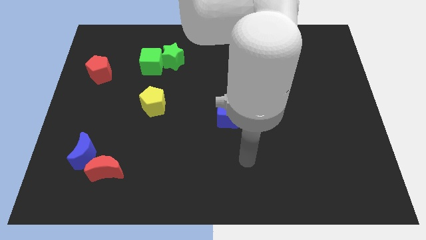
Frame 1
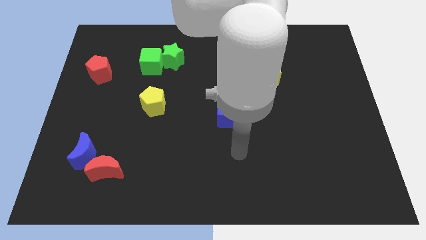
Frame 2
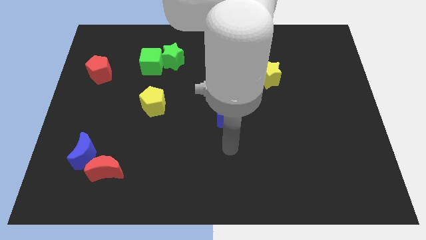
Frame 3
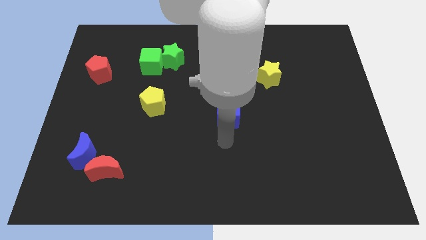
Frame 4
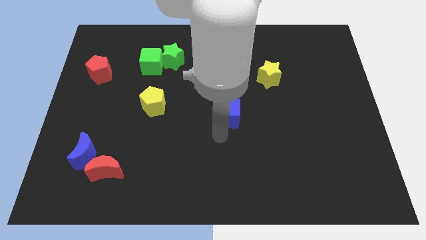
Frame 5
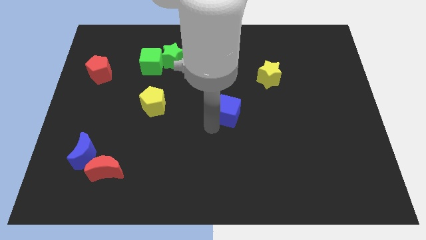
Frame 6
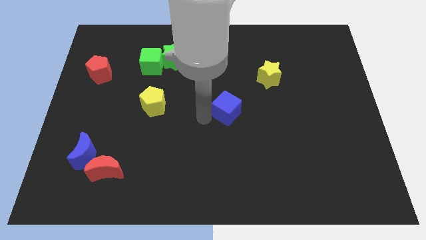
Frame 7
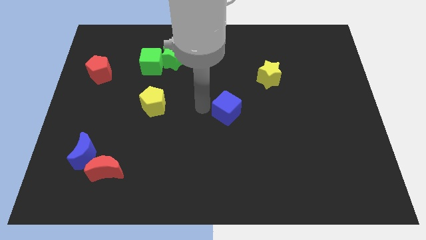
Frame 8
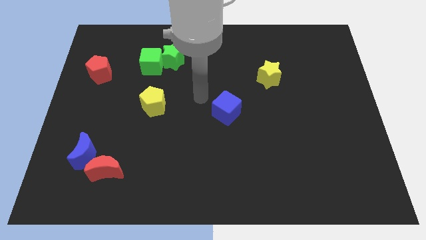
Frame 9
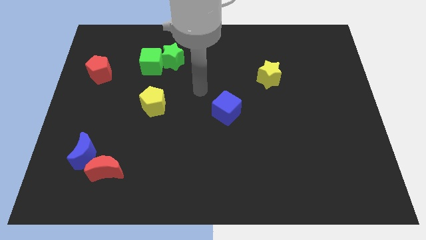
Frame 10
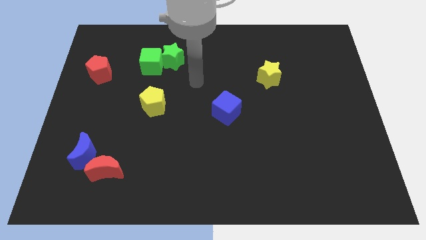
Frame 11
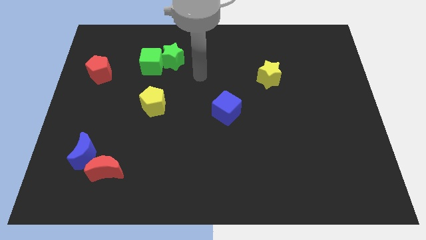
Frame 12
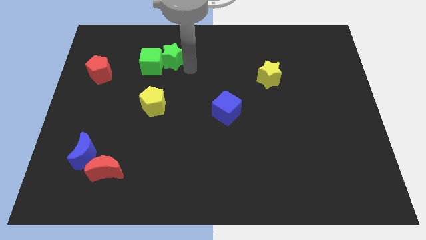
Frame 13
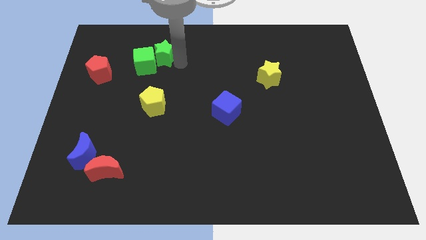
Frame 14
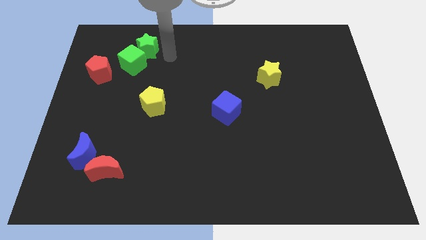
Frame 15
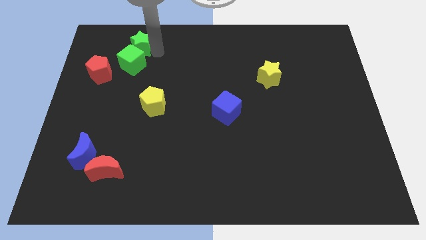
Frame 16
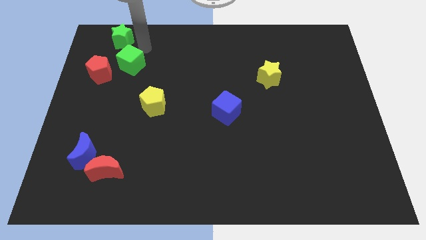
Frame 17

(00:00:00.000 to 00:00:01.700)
pull the green cube apart from the green star

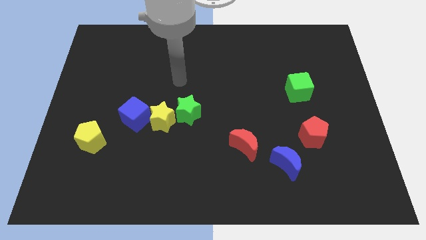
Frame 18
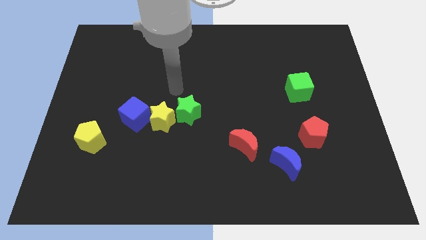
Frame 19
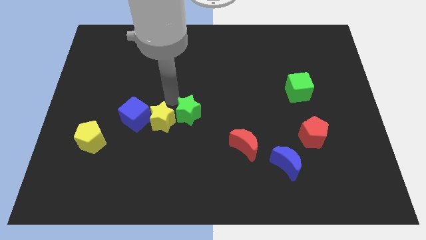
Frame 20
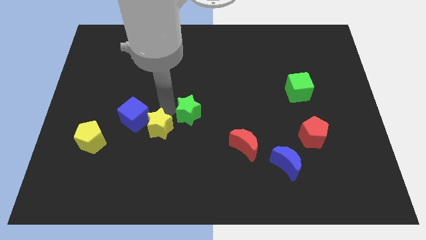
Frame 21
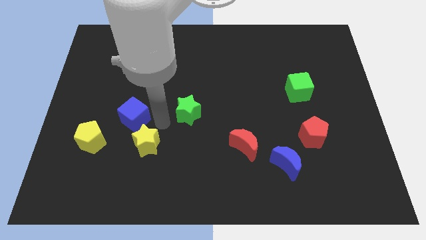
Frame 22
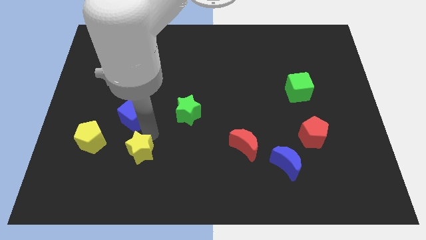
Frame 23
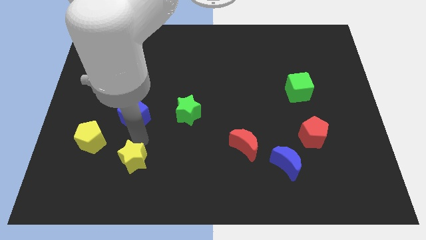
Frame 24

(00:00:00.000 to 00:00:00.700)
pull the blue cube apart from the yellow star

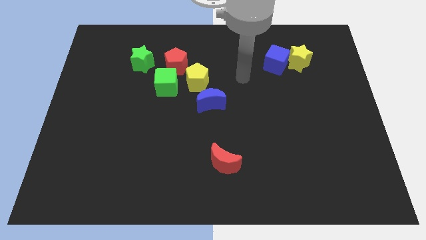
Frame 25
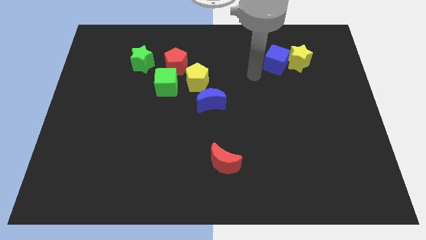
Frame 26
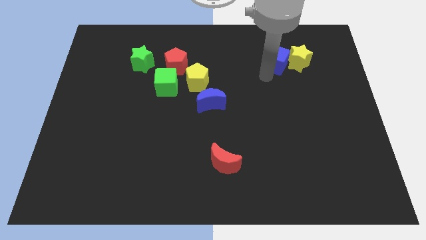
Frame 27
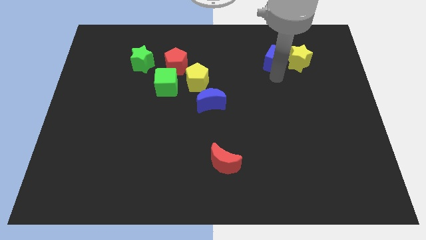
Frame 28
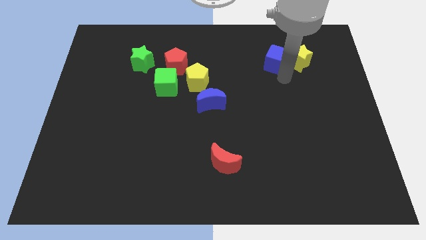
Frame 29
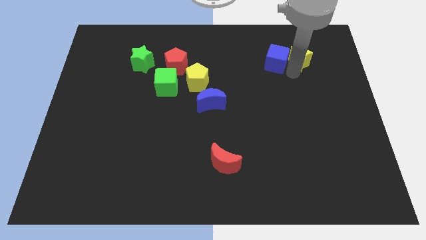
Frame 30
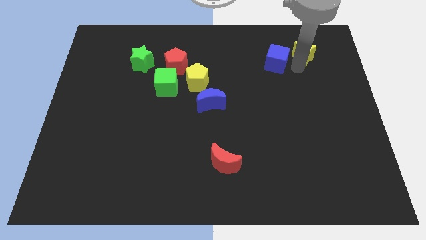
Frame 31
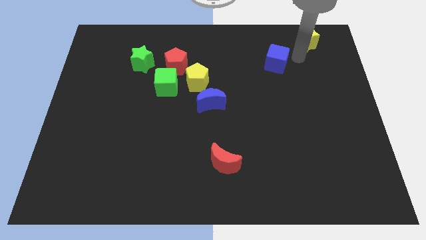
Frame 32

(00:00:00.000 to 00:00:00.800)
move the blue cube away from the yellow star

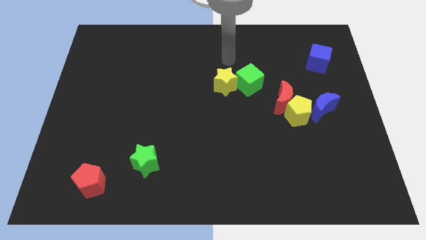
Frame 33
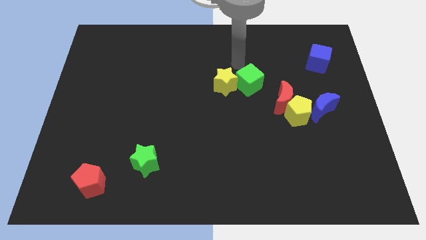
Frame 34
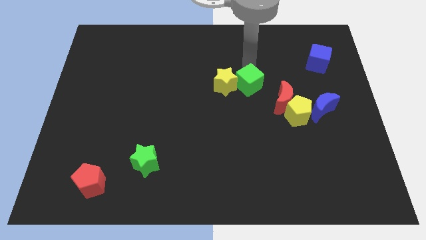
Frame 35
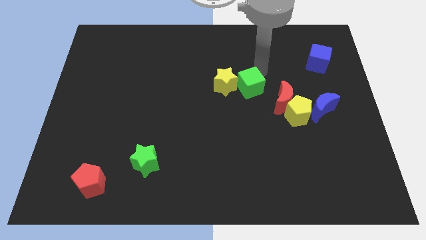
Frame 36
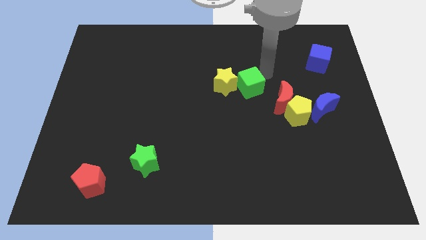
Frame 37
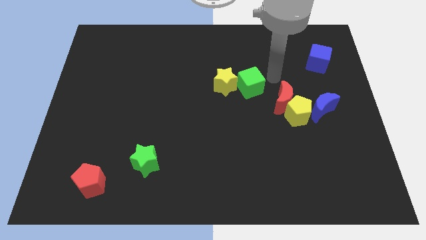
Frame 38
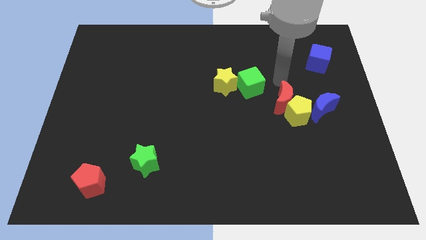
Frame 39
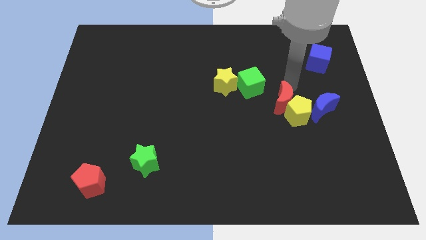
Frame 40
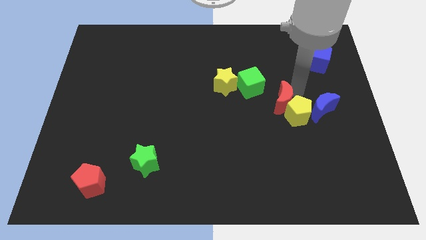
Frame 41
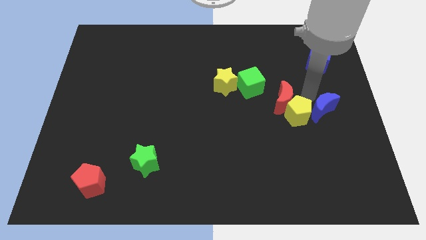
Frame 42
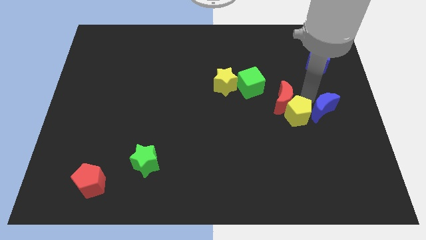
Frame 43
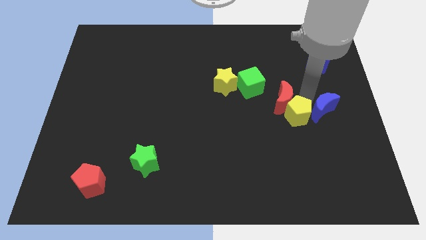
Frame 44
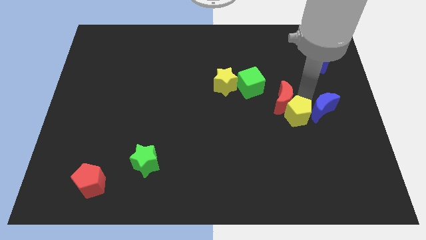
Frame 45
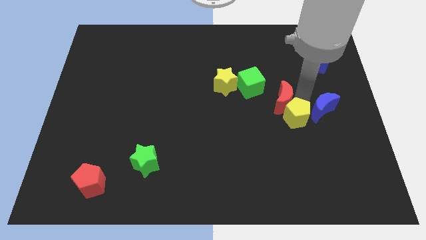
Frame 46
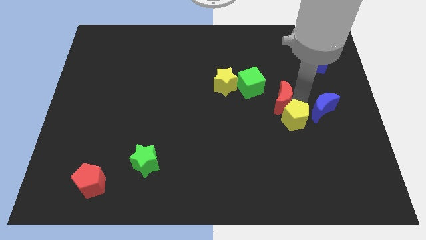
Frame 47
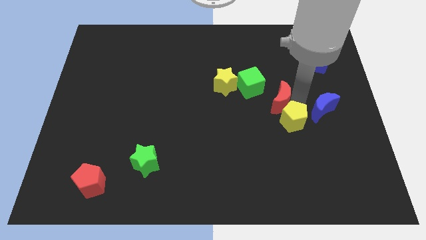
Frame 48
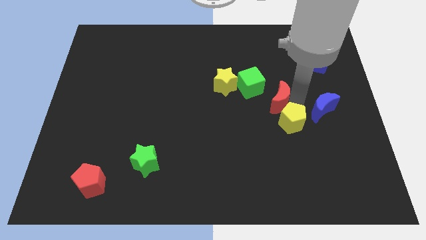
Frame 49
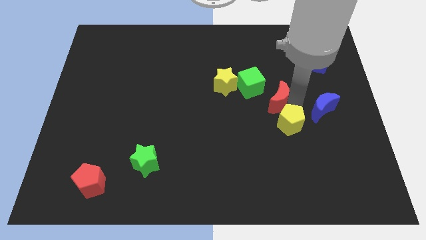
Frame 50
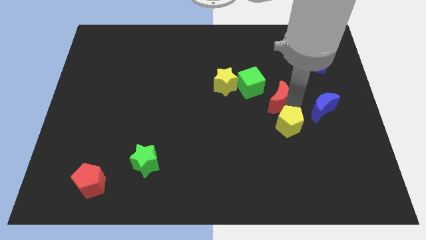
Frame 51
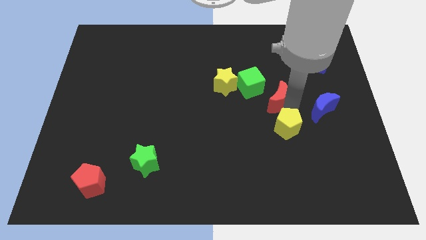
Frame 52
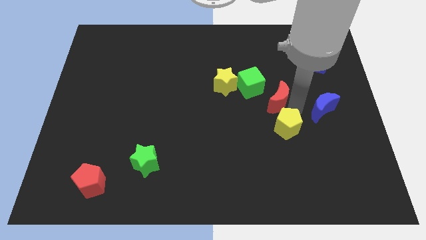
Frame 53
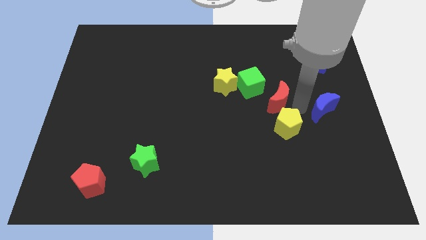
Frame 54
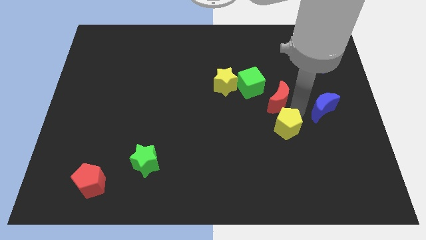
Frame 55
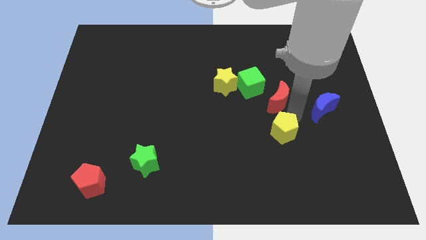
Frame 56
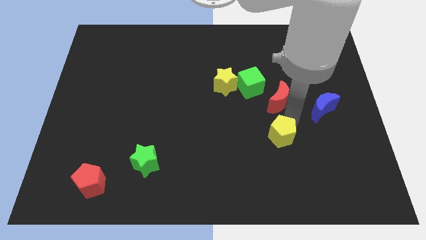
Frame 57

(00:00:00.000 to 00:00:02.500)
move the yellow pentagon away from the red moon and blue moon

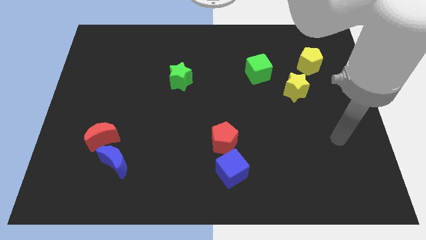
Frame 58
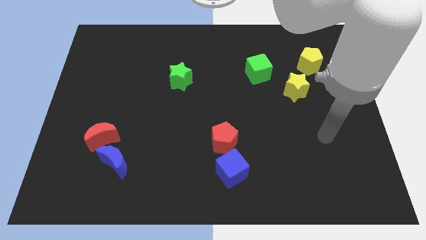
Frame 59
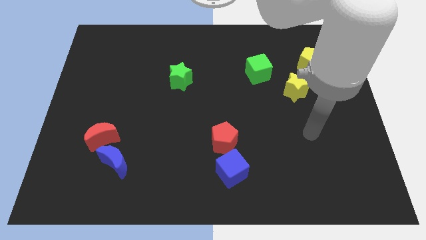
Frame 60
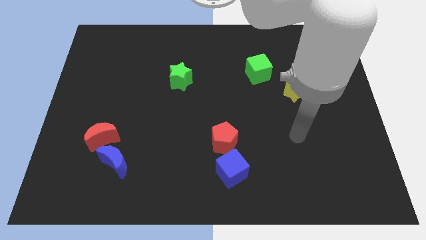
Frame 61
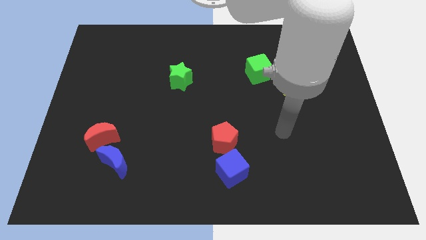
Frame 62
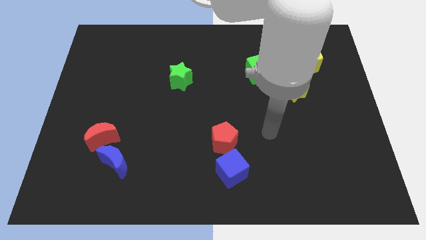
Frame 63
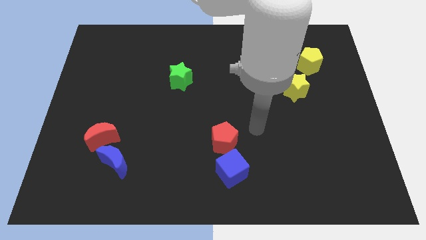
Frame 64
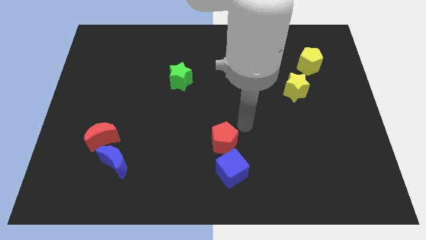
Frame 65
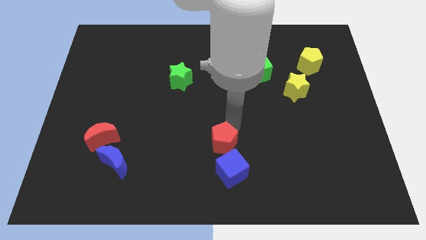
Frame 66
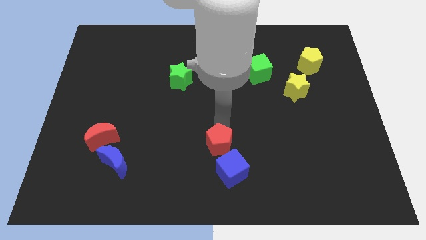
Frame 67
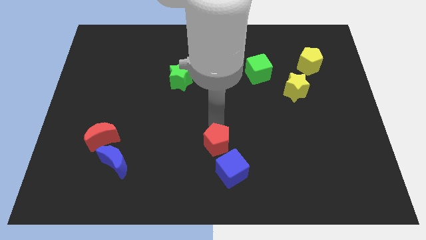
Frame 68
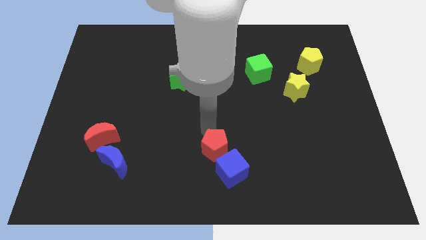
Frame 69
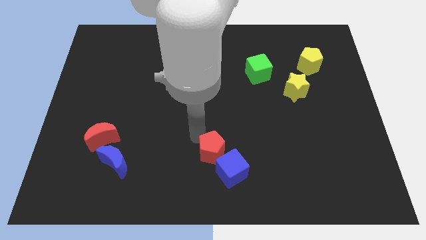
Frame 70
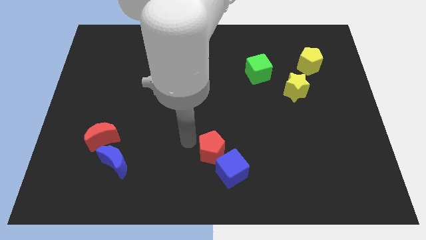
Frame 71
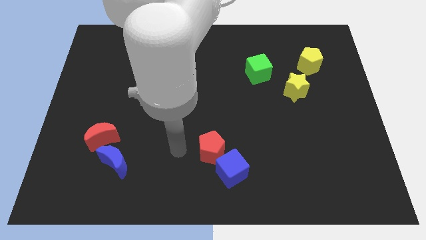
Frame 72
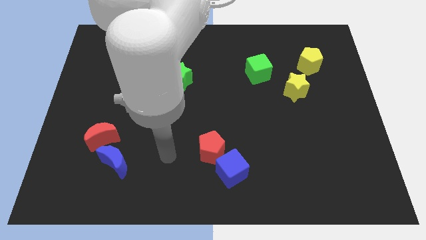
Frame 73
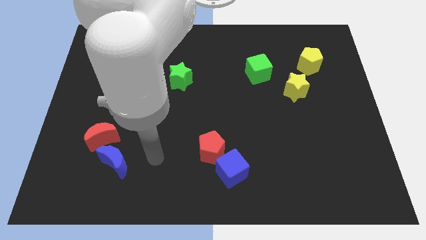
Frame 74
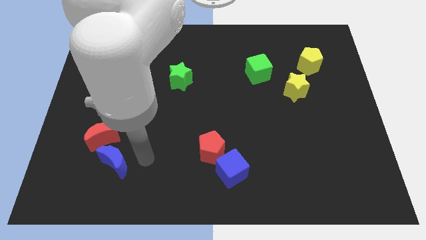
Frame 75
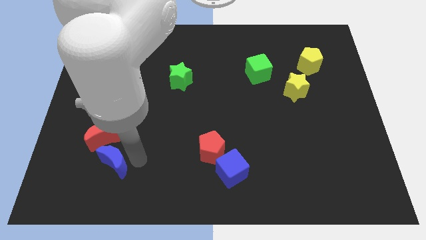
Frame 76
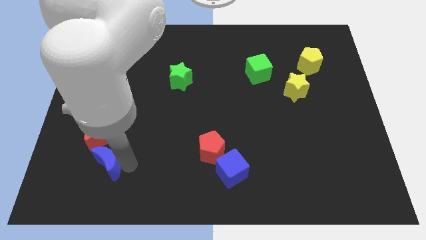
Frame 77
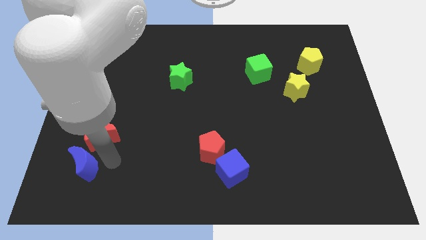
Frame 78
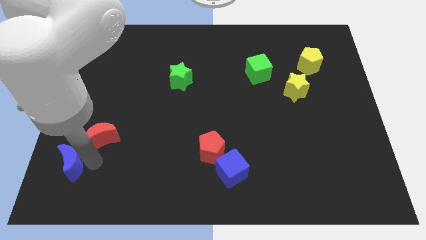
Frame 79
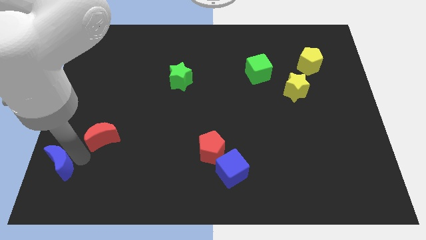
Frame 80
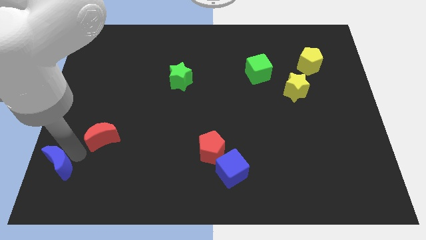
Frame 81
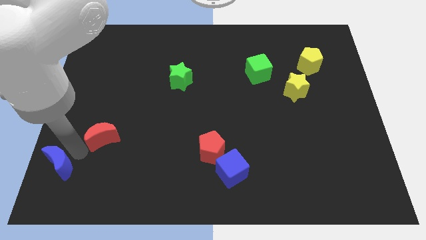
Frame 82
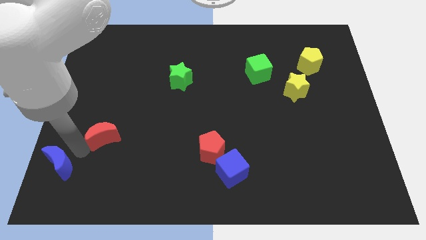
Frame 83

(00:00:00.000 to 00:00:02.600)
pull the red moon apart from the blue moon

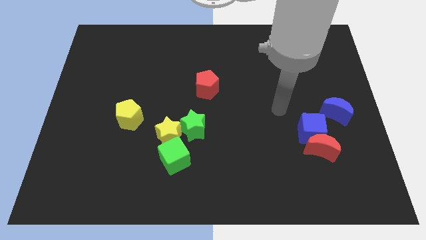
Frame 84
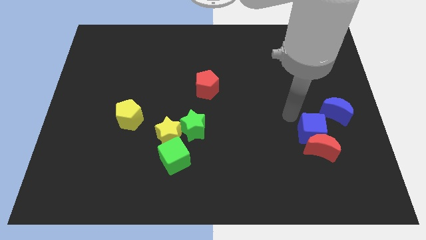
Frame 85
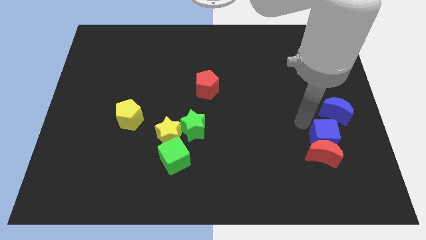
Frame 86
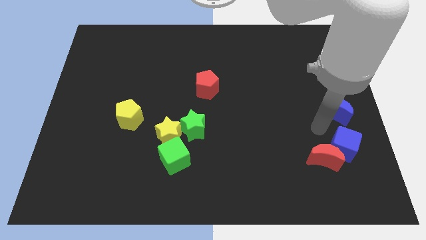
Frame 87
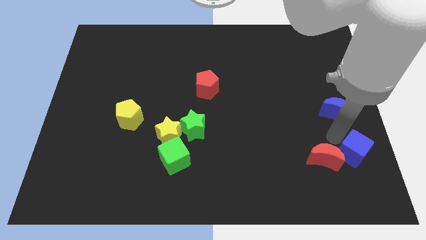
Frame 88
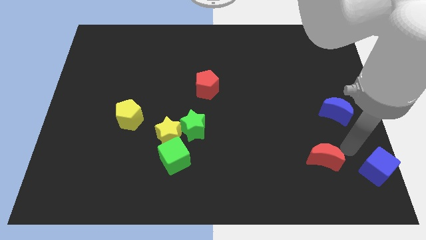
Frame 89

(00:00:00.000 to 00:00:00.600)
move the red moon away from the blue cube

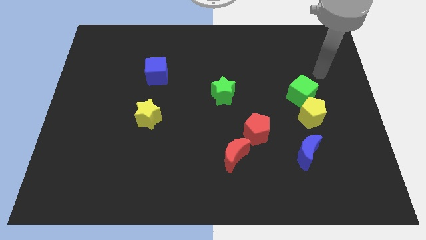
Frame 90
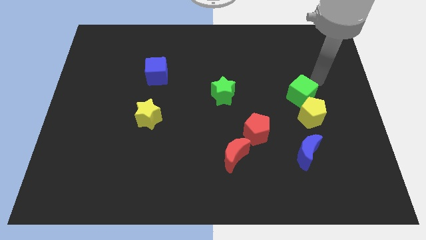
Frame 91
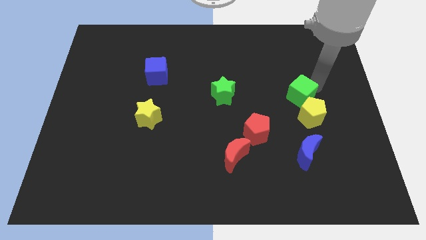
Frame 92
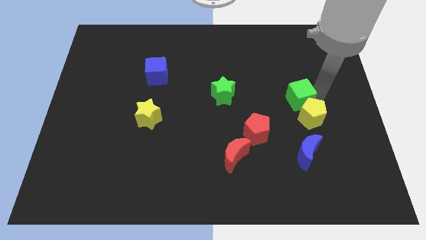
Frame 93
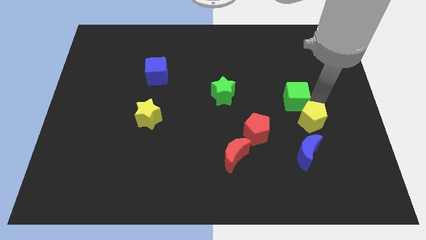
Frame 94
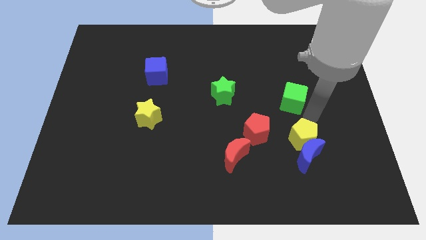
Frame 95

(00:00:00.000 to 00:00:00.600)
separate the green cube from the yellow pentagon
